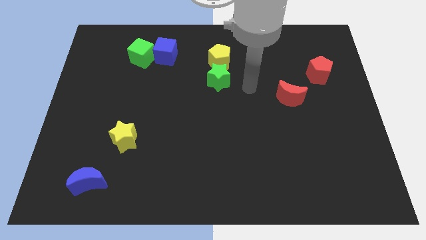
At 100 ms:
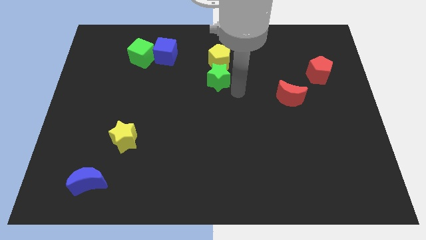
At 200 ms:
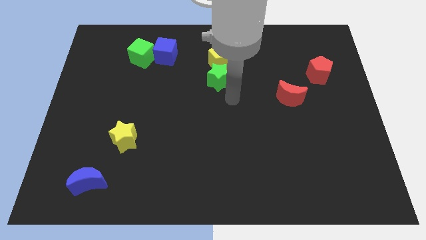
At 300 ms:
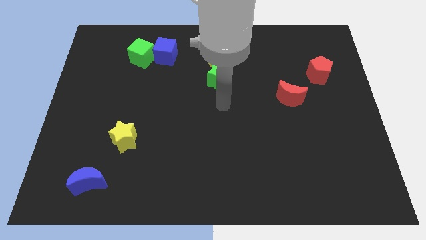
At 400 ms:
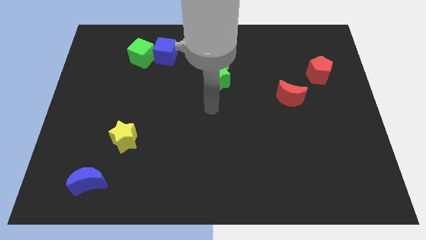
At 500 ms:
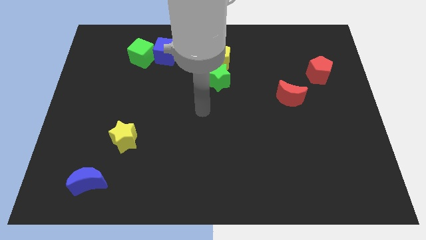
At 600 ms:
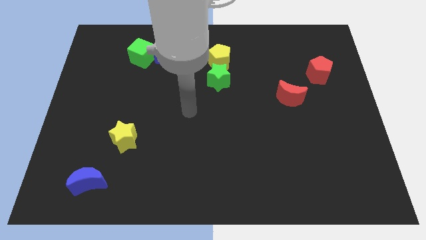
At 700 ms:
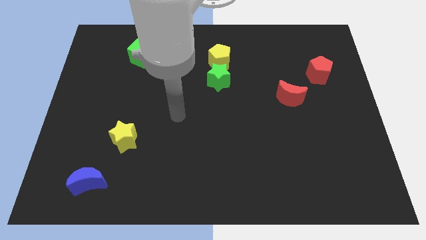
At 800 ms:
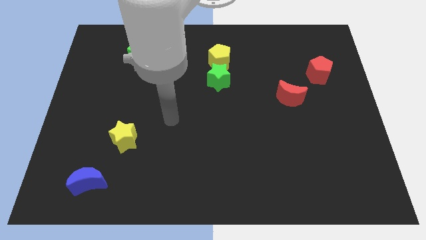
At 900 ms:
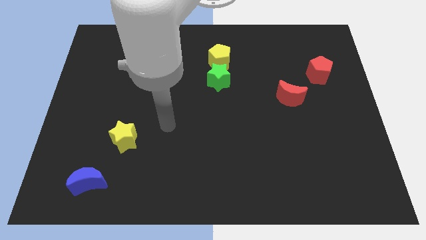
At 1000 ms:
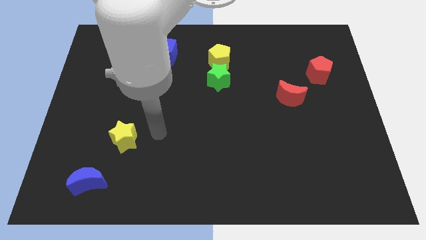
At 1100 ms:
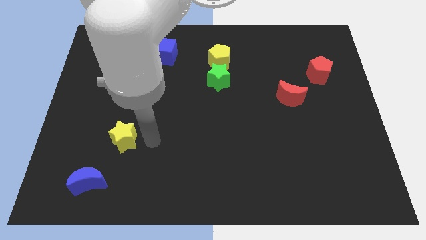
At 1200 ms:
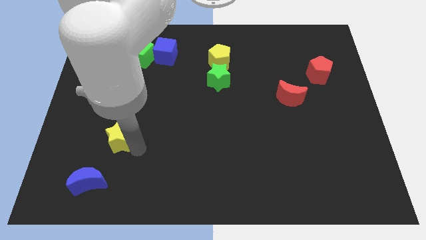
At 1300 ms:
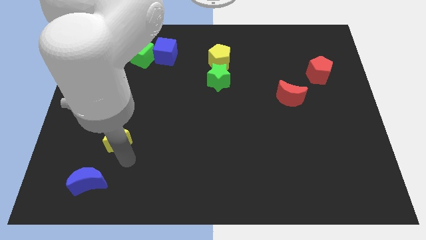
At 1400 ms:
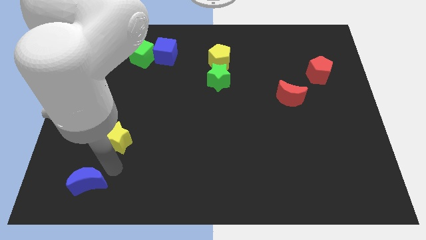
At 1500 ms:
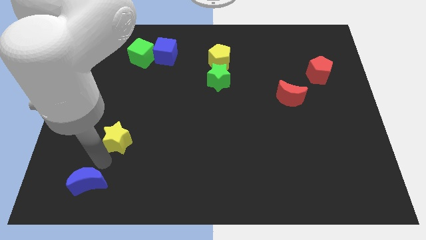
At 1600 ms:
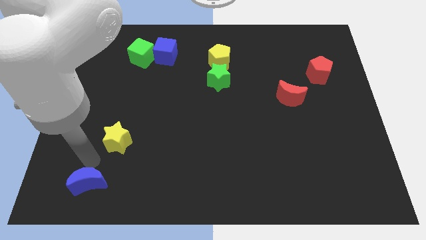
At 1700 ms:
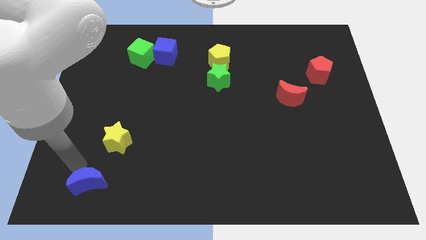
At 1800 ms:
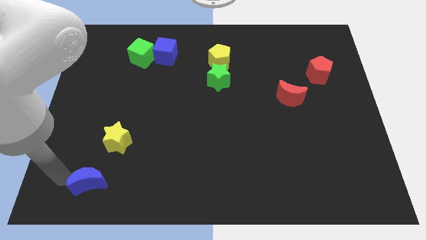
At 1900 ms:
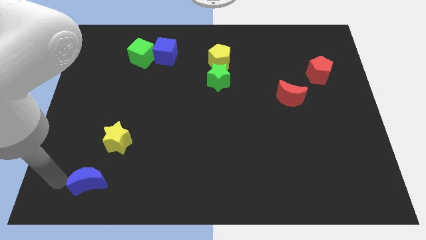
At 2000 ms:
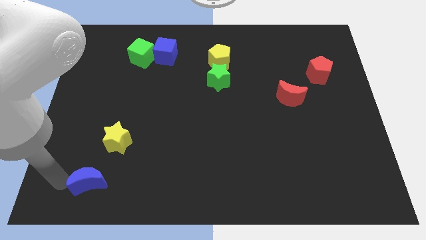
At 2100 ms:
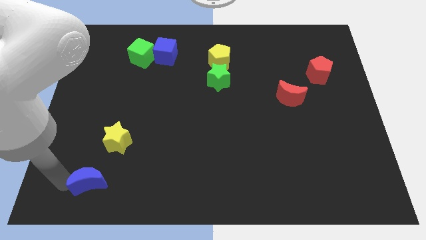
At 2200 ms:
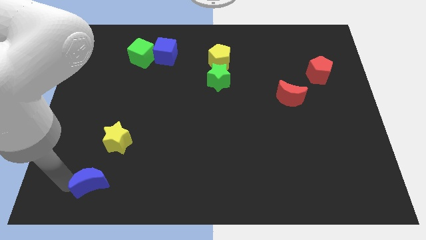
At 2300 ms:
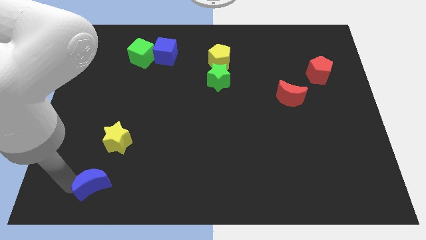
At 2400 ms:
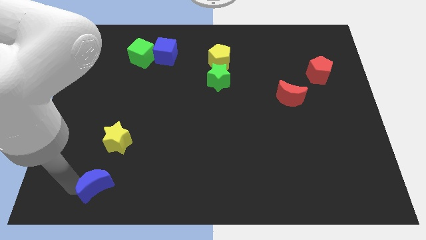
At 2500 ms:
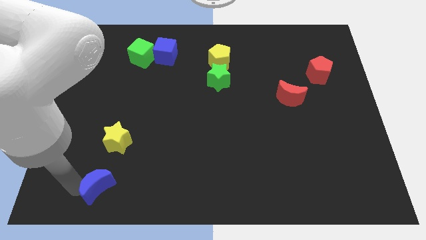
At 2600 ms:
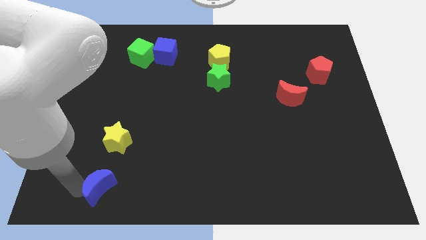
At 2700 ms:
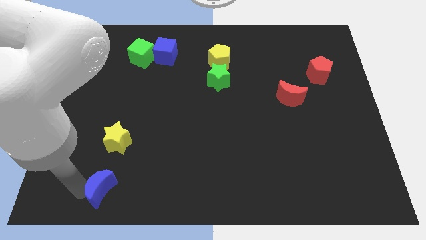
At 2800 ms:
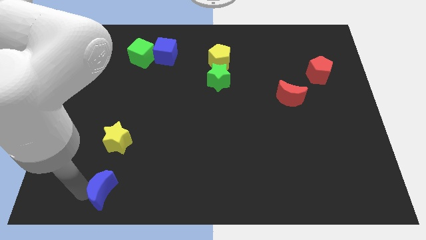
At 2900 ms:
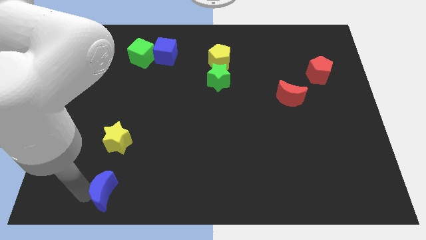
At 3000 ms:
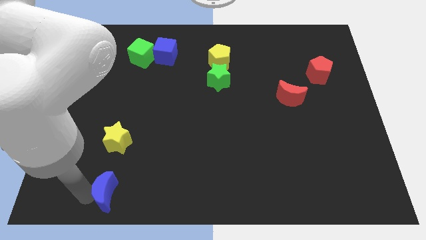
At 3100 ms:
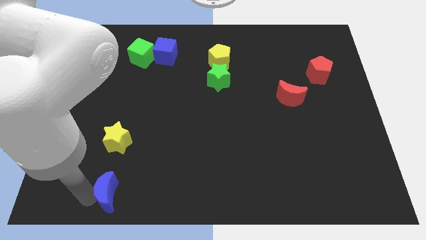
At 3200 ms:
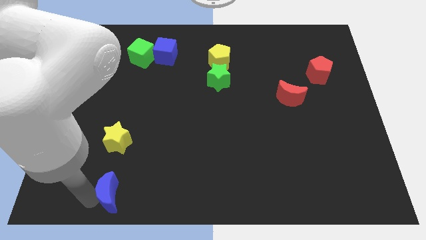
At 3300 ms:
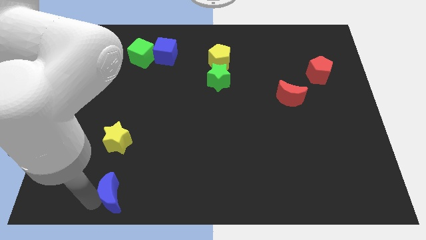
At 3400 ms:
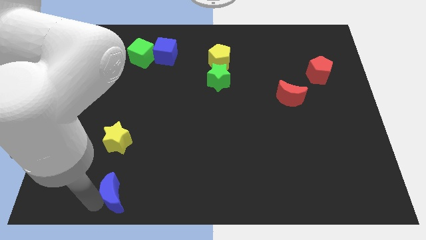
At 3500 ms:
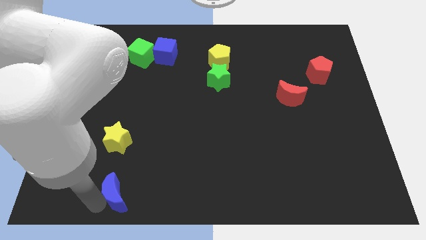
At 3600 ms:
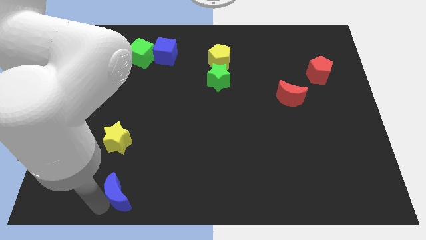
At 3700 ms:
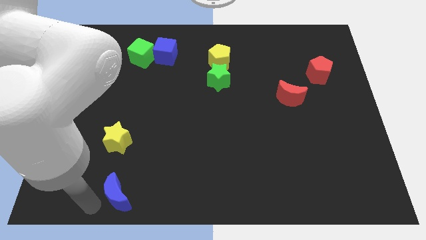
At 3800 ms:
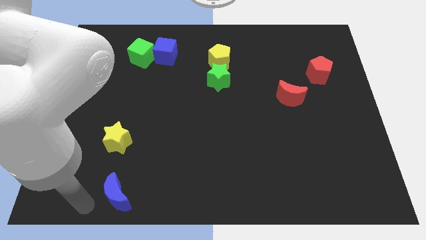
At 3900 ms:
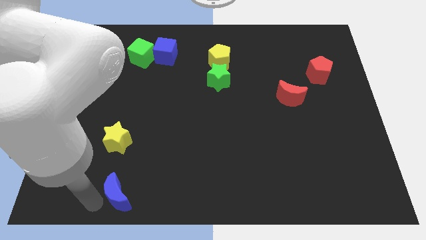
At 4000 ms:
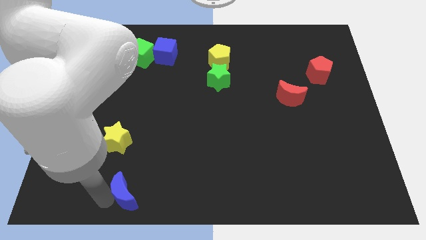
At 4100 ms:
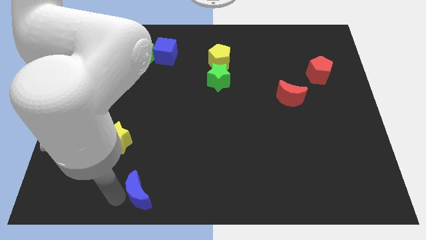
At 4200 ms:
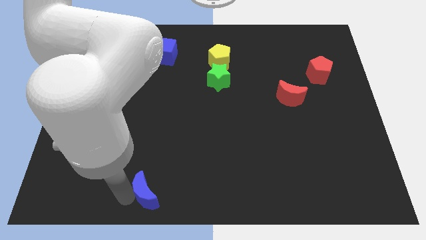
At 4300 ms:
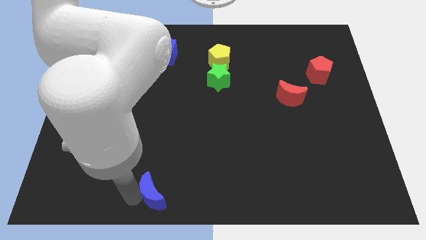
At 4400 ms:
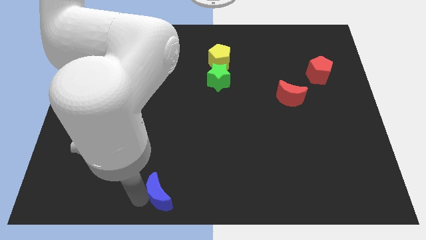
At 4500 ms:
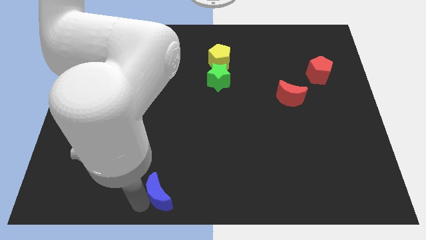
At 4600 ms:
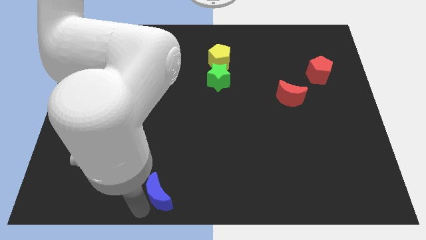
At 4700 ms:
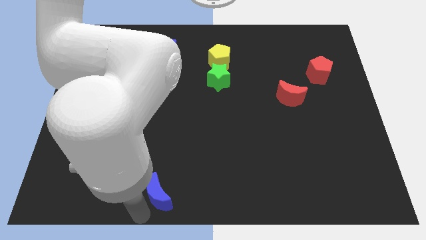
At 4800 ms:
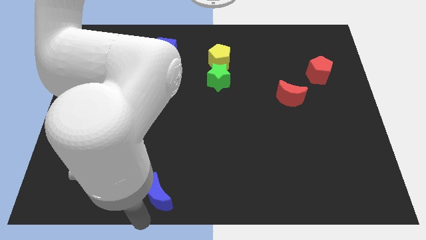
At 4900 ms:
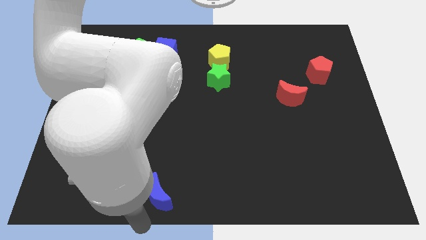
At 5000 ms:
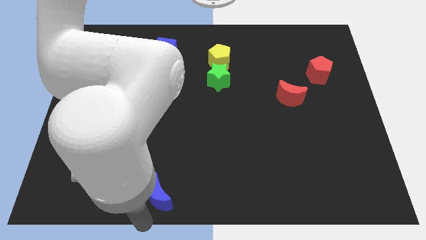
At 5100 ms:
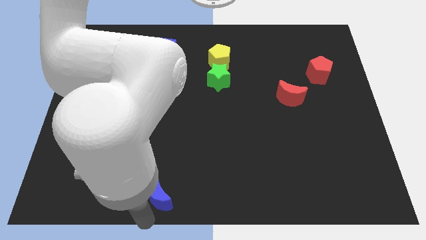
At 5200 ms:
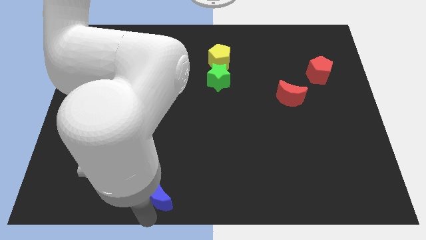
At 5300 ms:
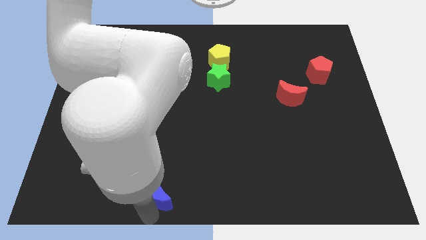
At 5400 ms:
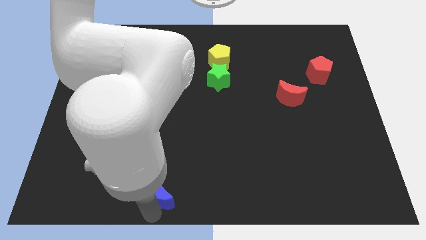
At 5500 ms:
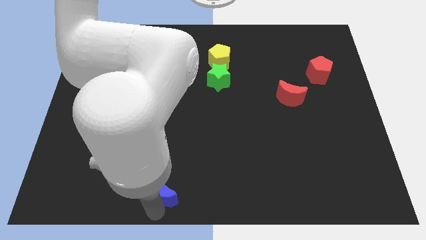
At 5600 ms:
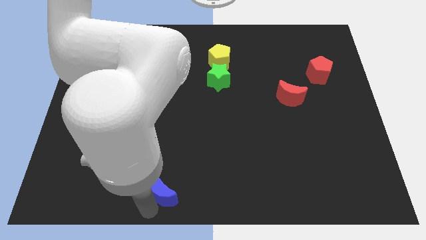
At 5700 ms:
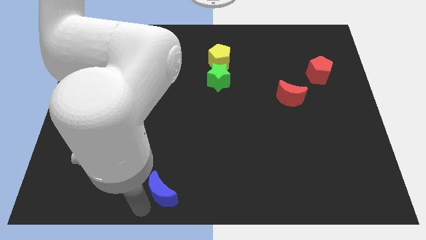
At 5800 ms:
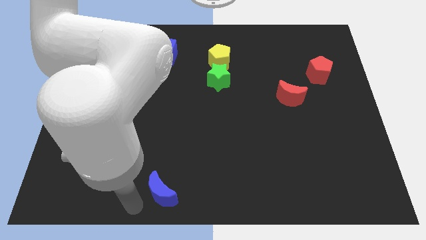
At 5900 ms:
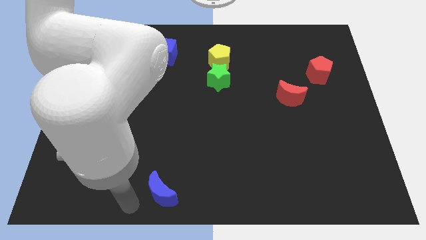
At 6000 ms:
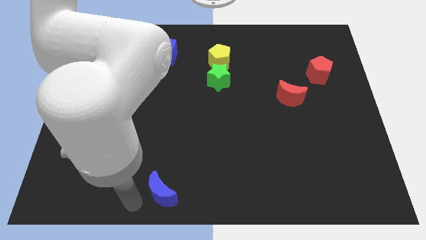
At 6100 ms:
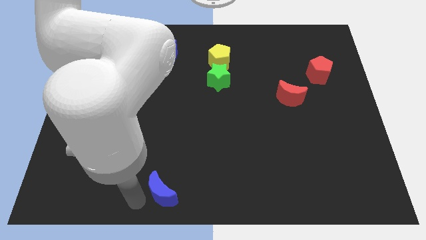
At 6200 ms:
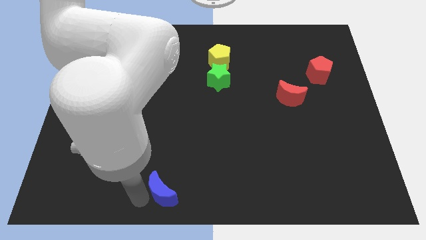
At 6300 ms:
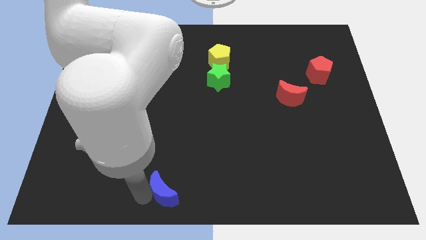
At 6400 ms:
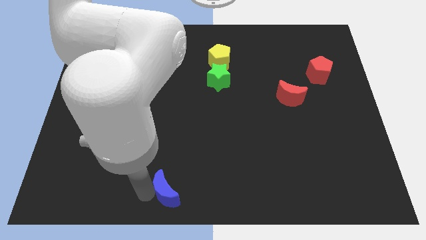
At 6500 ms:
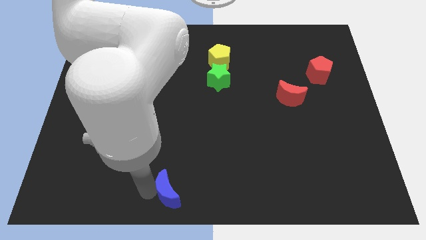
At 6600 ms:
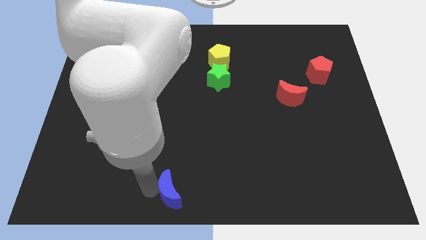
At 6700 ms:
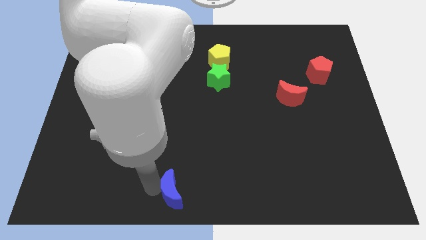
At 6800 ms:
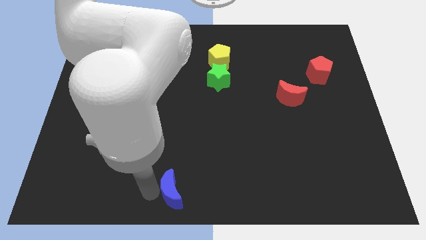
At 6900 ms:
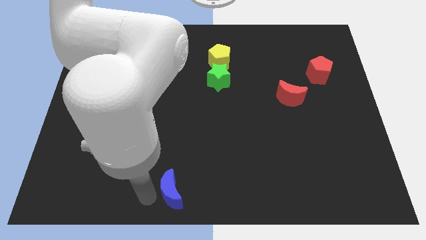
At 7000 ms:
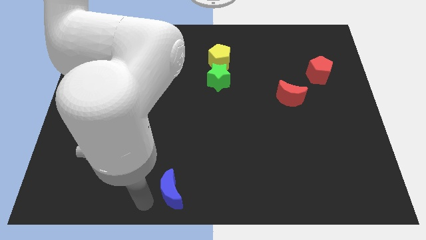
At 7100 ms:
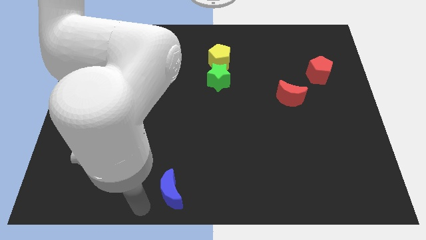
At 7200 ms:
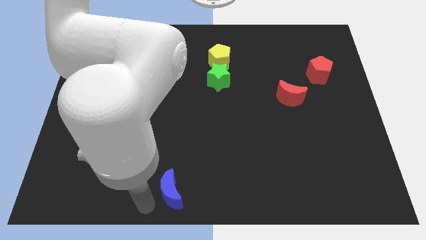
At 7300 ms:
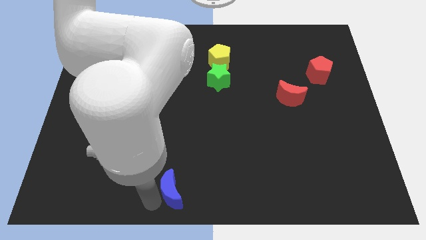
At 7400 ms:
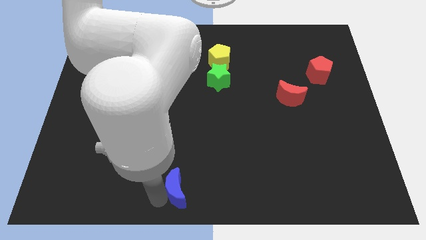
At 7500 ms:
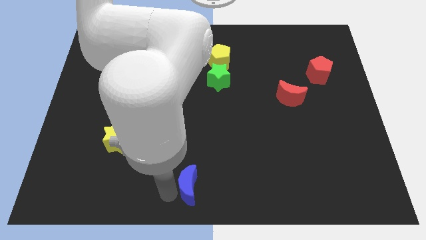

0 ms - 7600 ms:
push the blue moon right

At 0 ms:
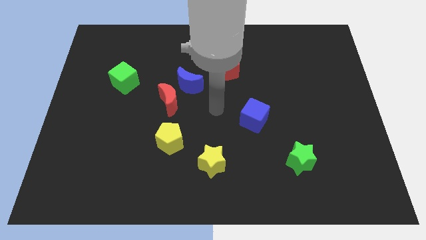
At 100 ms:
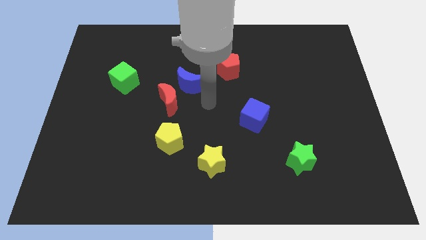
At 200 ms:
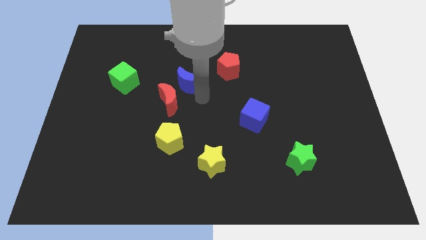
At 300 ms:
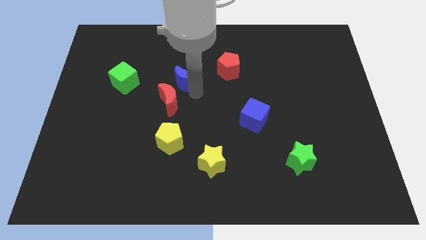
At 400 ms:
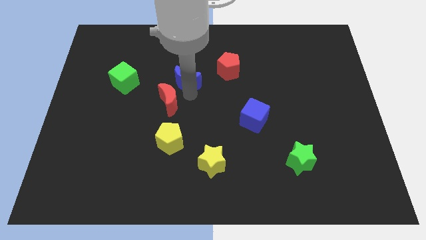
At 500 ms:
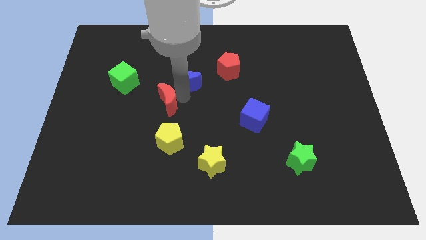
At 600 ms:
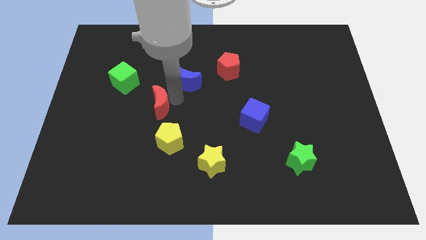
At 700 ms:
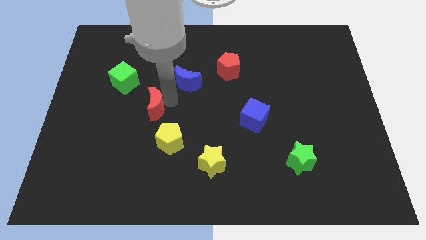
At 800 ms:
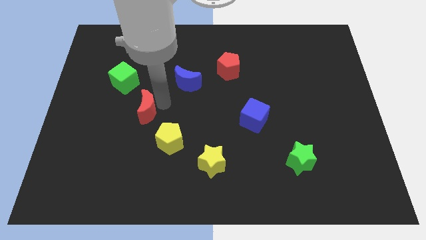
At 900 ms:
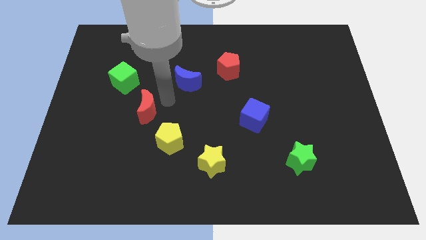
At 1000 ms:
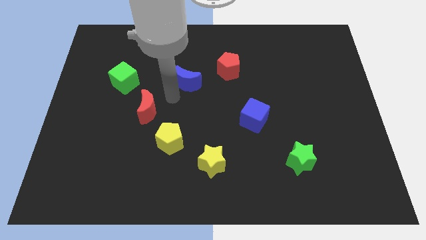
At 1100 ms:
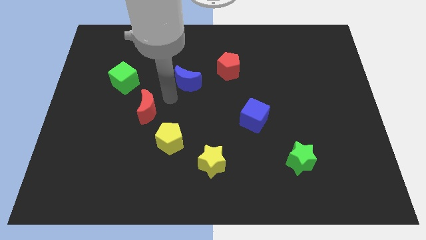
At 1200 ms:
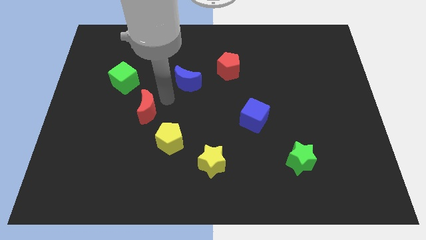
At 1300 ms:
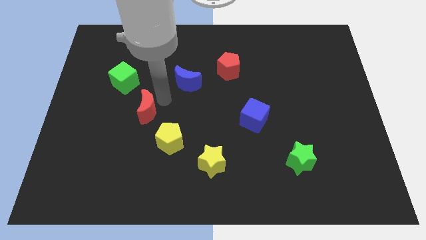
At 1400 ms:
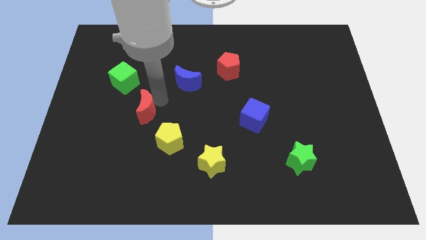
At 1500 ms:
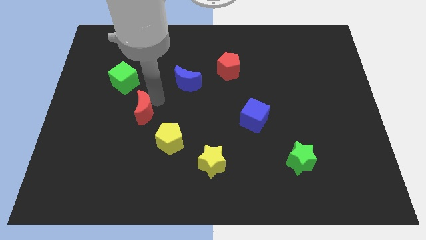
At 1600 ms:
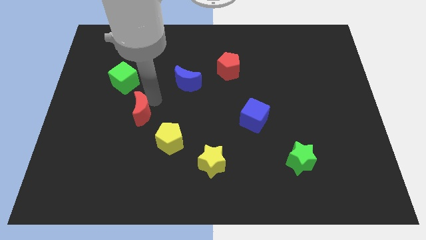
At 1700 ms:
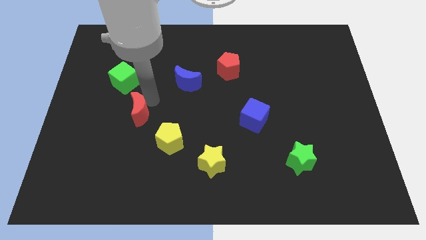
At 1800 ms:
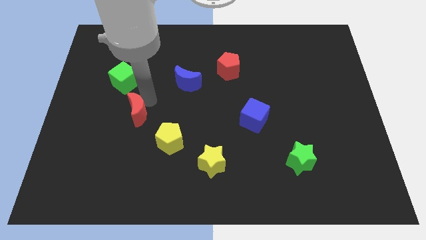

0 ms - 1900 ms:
slide the red moon slightly down and left
